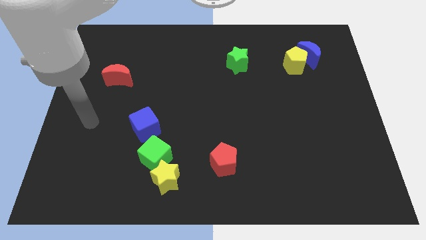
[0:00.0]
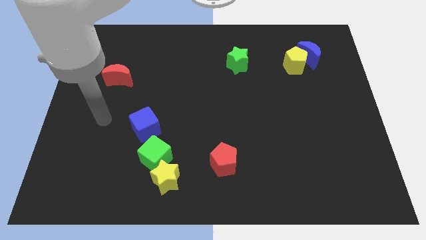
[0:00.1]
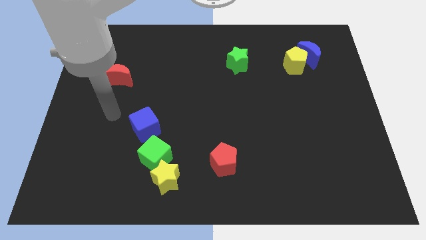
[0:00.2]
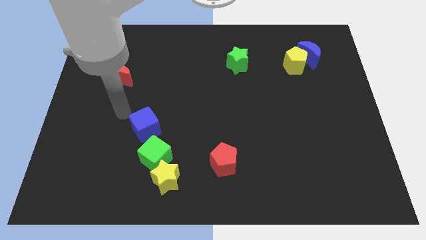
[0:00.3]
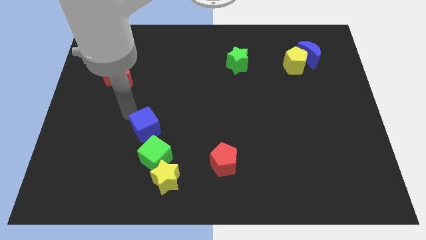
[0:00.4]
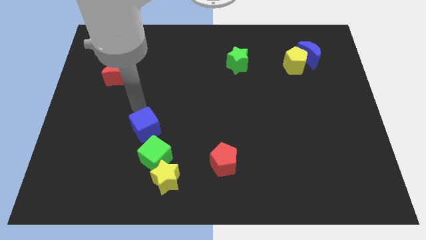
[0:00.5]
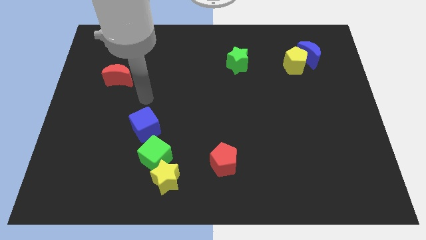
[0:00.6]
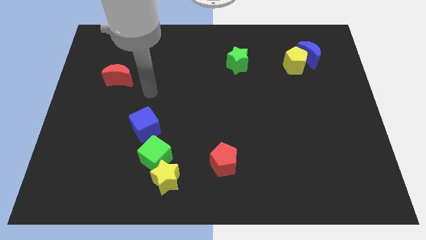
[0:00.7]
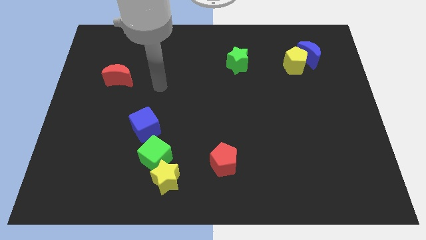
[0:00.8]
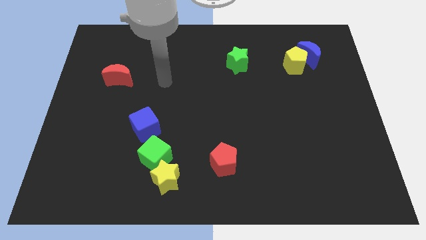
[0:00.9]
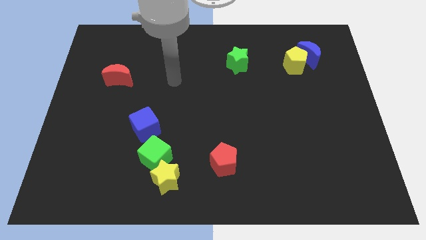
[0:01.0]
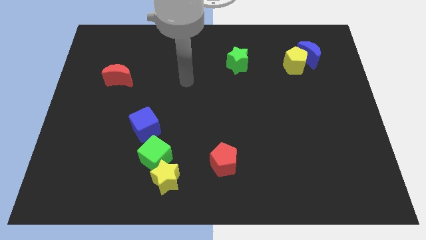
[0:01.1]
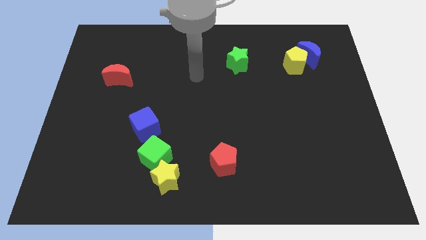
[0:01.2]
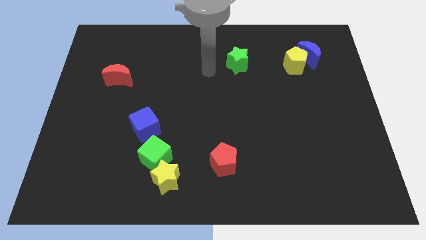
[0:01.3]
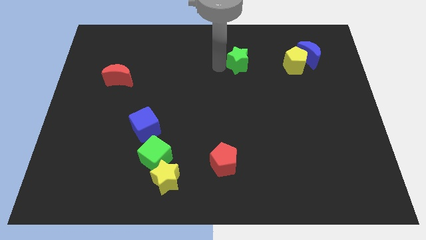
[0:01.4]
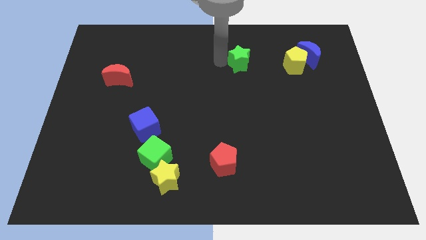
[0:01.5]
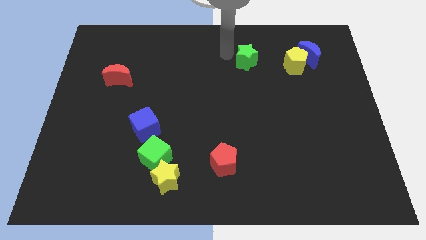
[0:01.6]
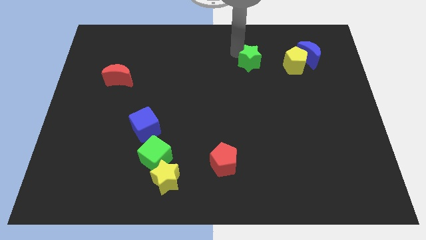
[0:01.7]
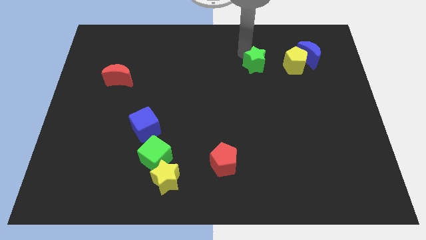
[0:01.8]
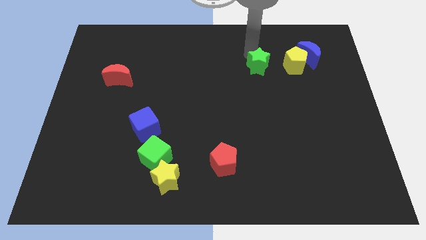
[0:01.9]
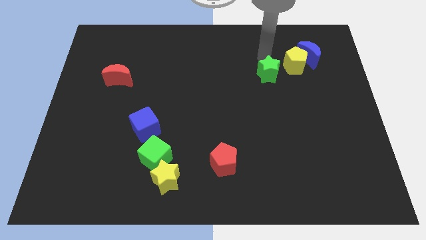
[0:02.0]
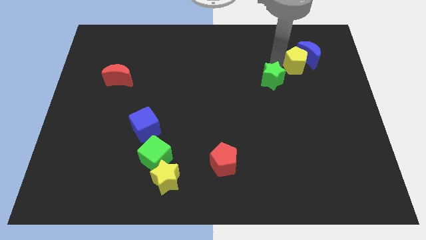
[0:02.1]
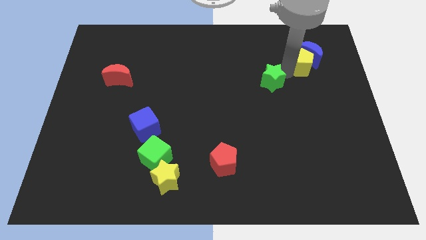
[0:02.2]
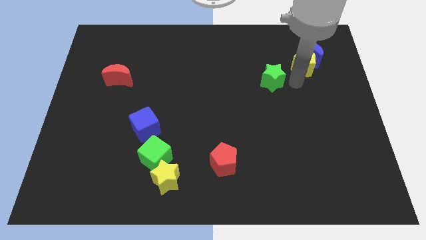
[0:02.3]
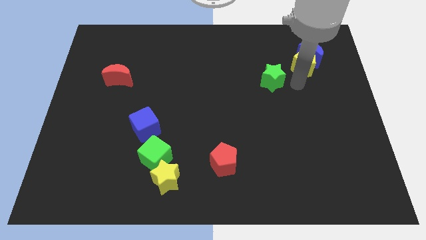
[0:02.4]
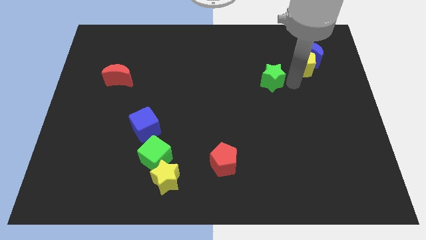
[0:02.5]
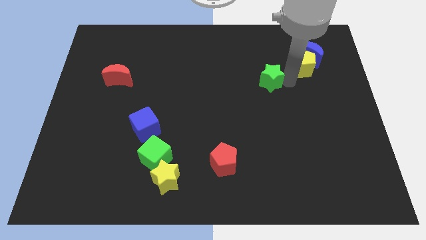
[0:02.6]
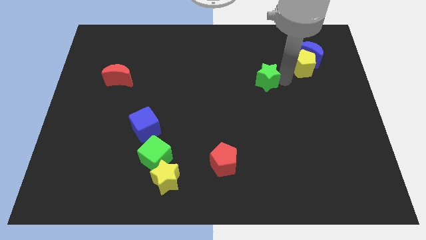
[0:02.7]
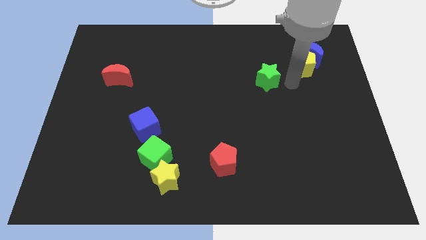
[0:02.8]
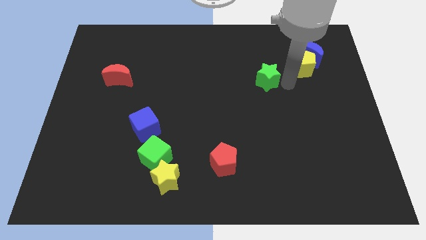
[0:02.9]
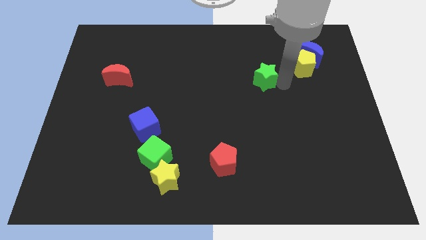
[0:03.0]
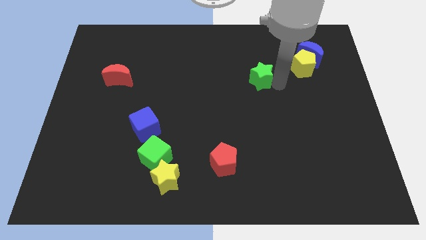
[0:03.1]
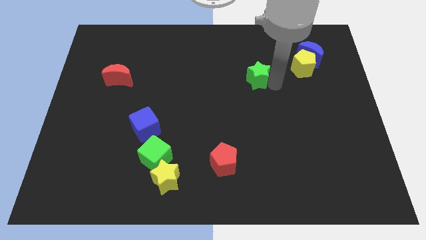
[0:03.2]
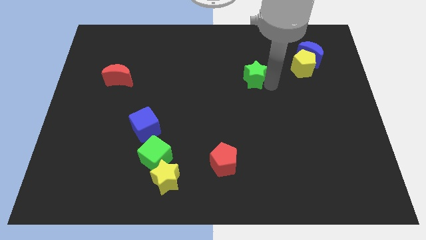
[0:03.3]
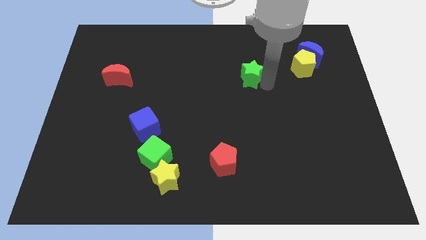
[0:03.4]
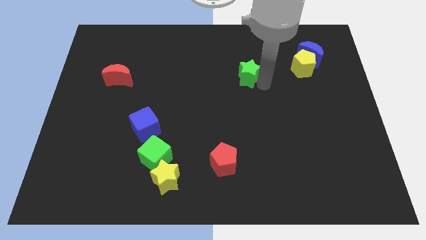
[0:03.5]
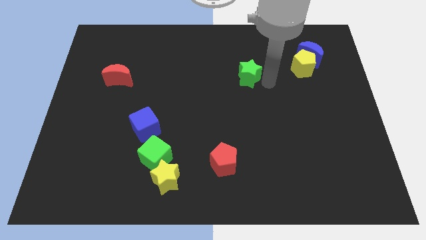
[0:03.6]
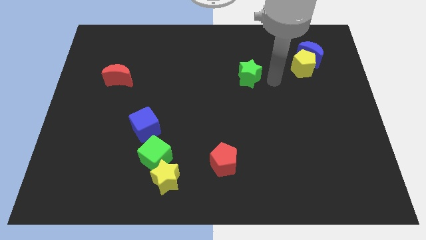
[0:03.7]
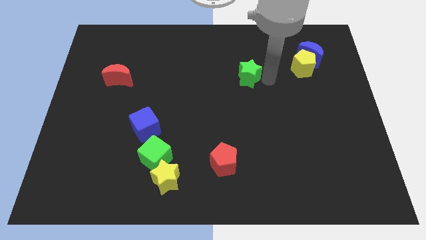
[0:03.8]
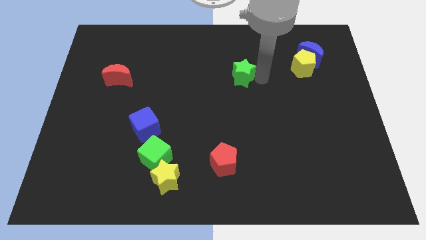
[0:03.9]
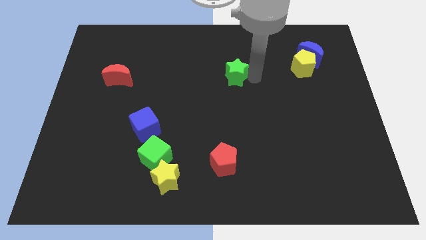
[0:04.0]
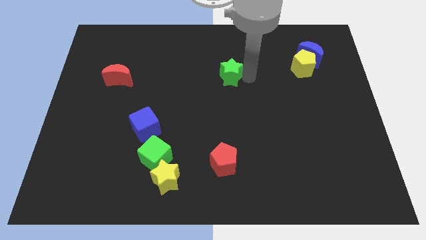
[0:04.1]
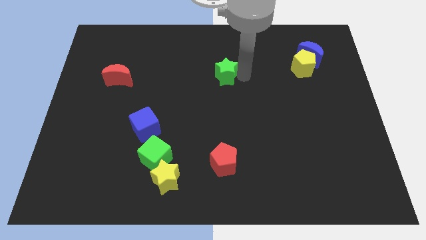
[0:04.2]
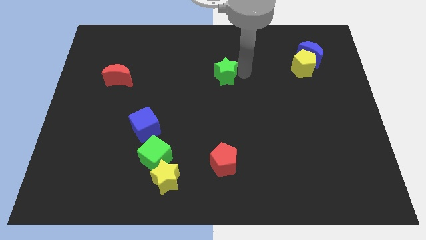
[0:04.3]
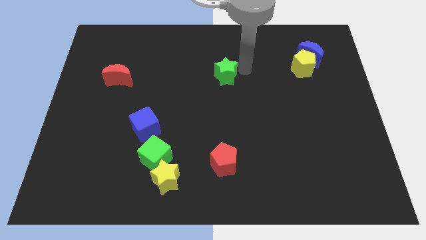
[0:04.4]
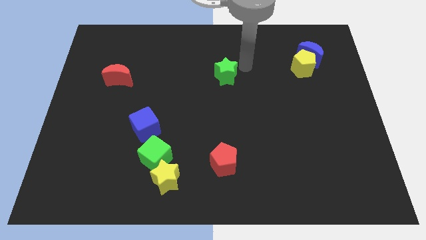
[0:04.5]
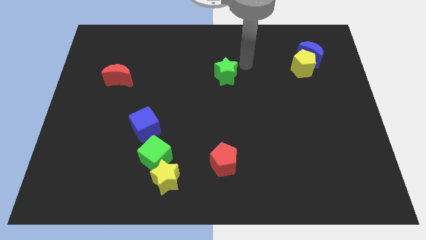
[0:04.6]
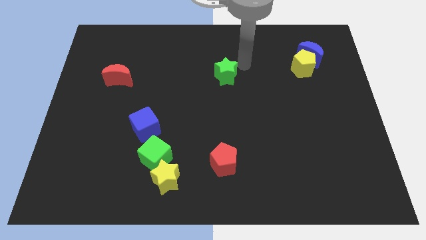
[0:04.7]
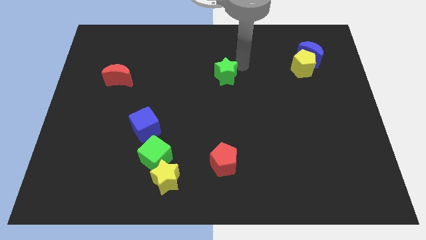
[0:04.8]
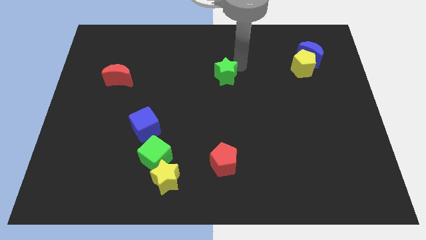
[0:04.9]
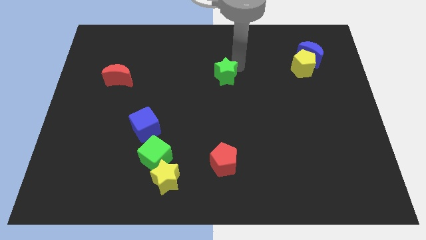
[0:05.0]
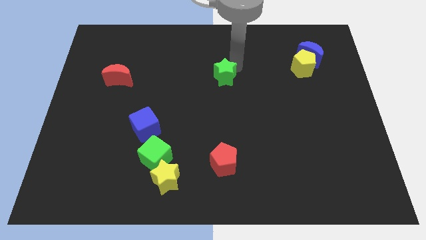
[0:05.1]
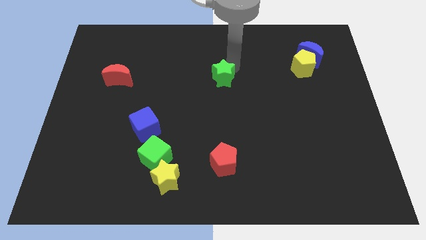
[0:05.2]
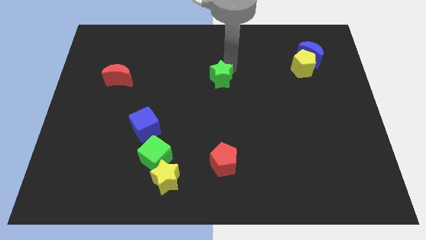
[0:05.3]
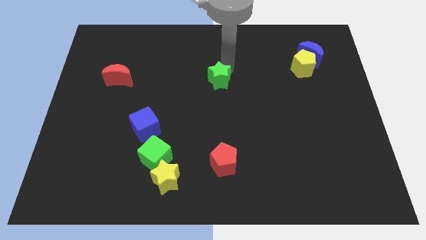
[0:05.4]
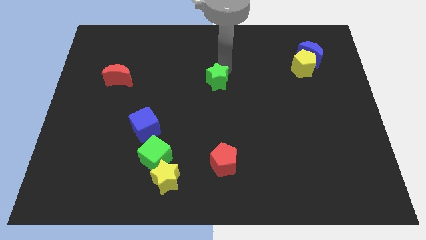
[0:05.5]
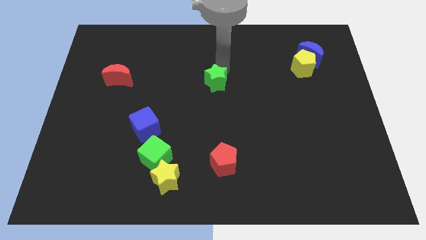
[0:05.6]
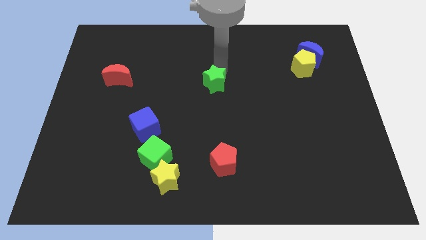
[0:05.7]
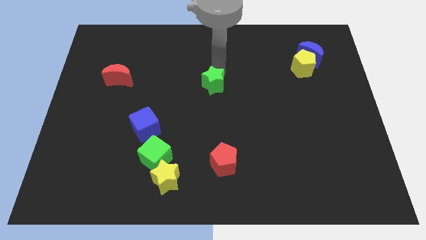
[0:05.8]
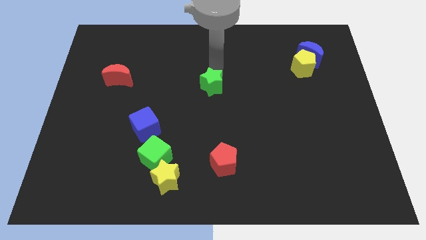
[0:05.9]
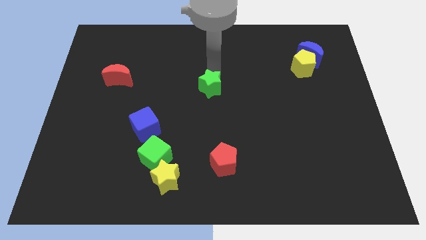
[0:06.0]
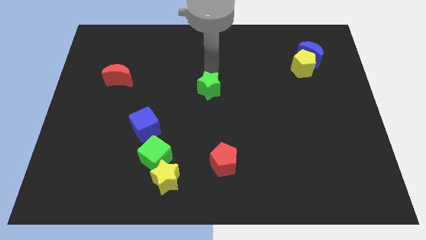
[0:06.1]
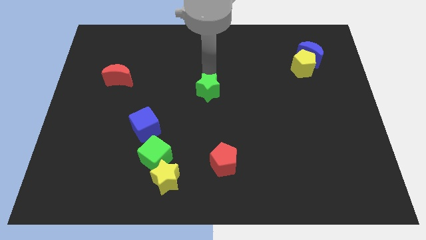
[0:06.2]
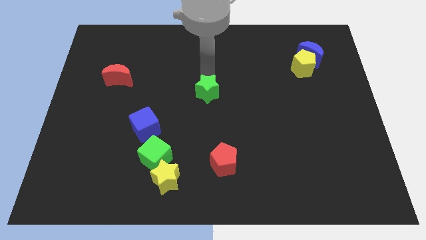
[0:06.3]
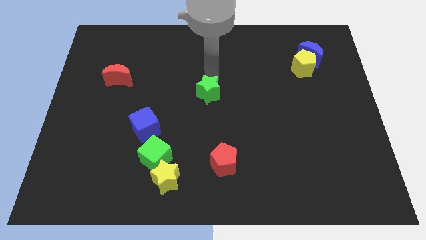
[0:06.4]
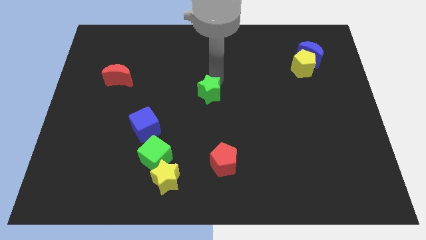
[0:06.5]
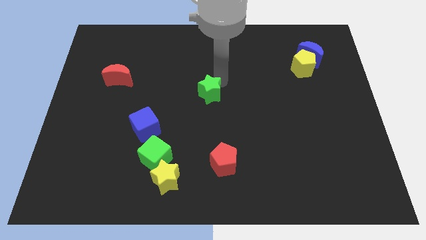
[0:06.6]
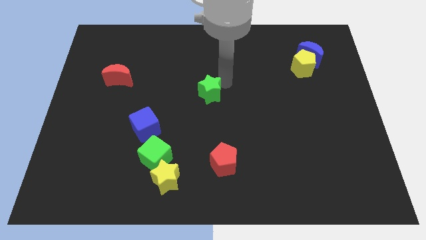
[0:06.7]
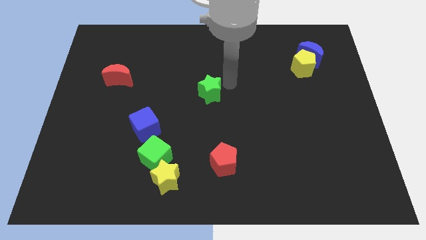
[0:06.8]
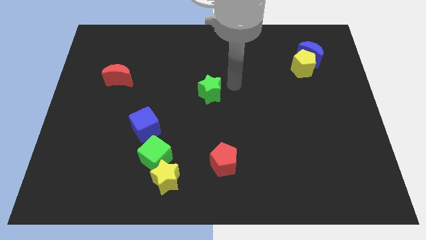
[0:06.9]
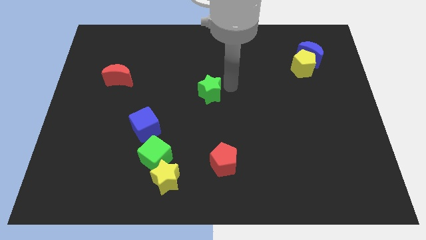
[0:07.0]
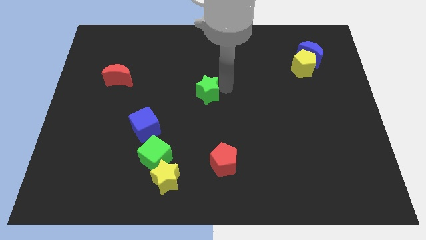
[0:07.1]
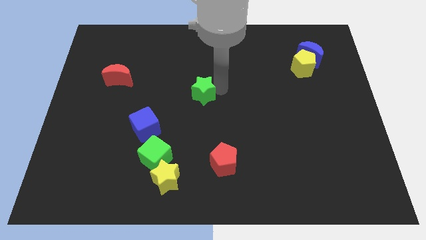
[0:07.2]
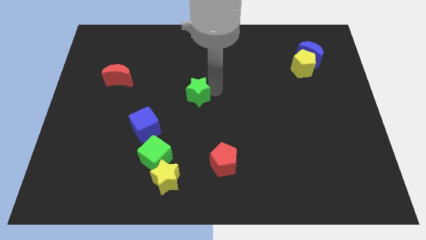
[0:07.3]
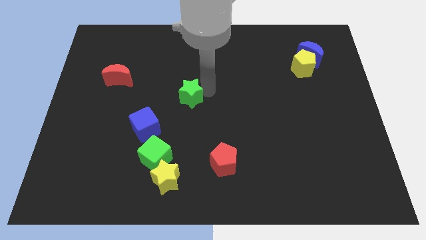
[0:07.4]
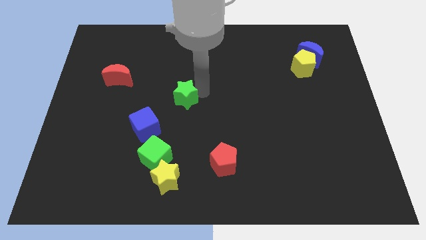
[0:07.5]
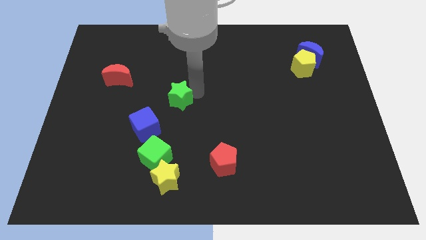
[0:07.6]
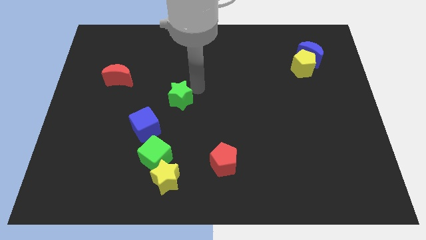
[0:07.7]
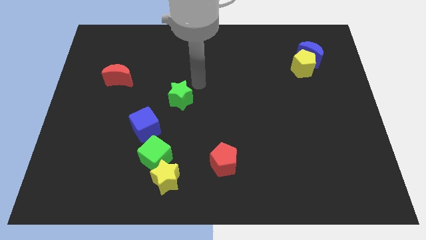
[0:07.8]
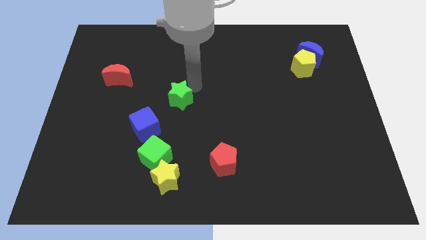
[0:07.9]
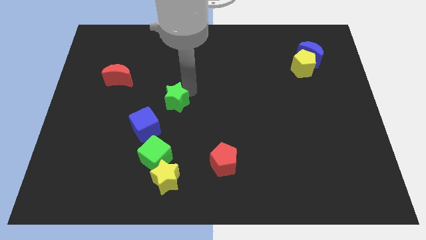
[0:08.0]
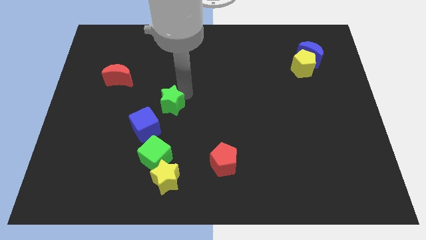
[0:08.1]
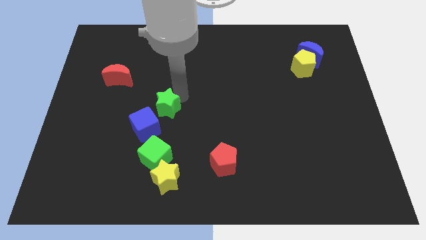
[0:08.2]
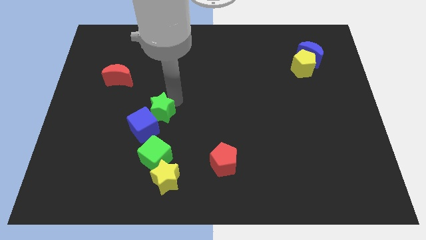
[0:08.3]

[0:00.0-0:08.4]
slide the green star towards the blue cube
